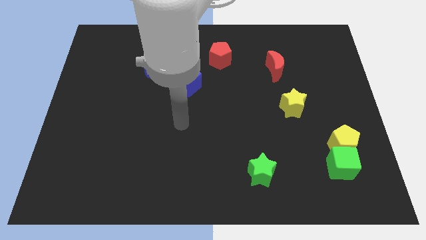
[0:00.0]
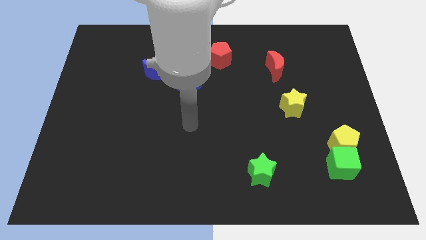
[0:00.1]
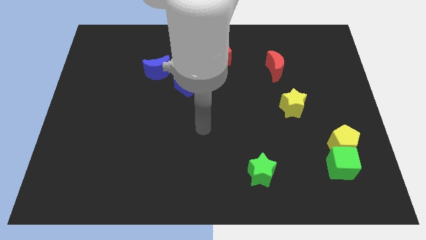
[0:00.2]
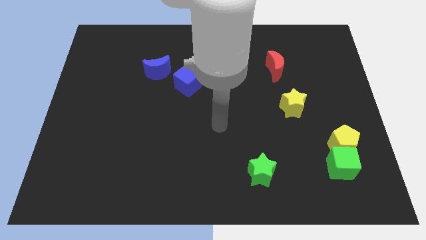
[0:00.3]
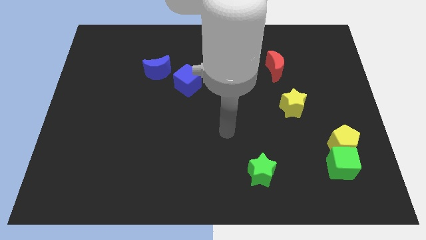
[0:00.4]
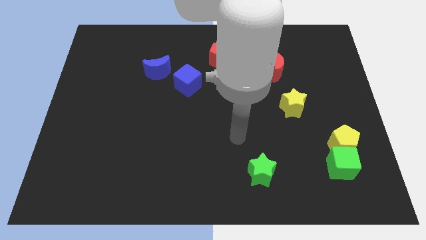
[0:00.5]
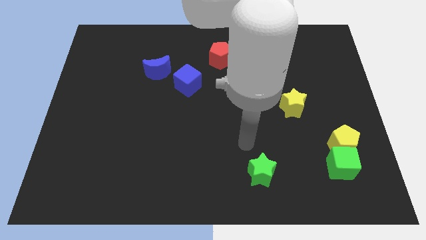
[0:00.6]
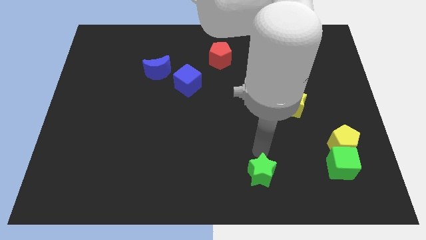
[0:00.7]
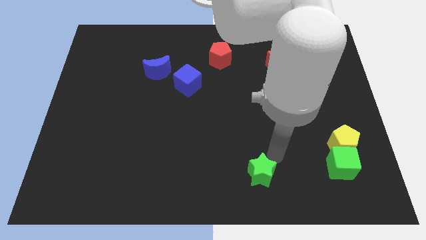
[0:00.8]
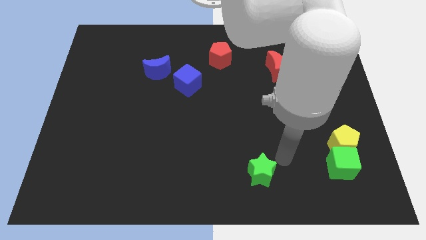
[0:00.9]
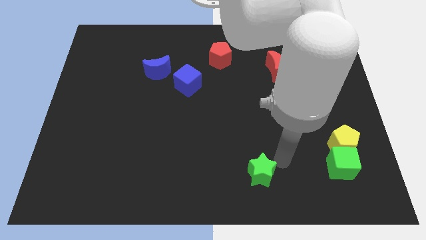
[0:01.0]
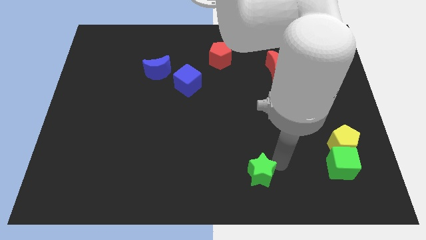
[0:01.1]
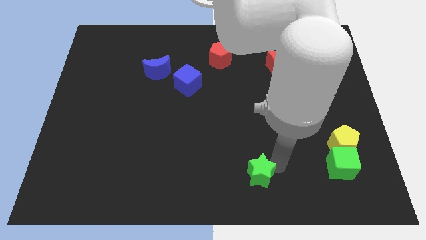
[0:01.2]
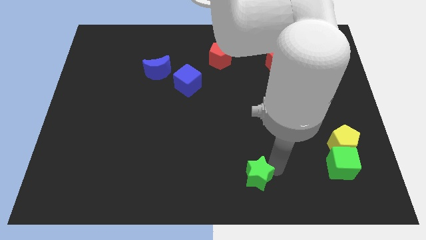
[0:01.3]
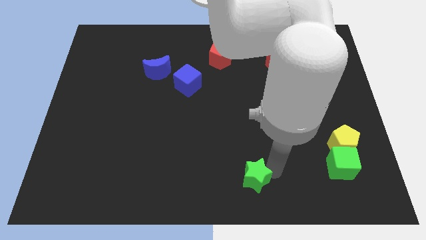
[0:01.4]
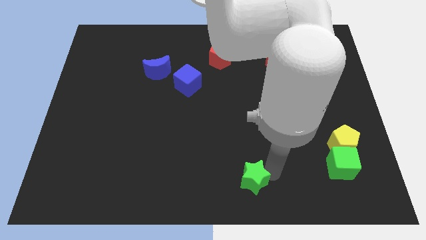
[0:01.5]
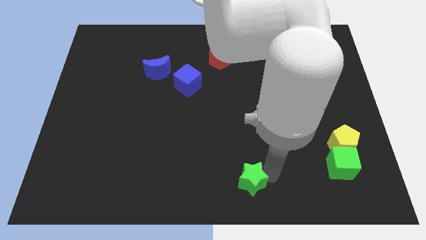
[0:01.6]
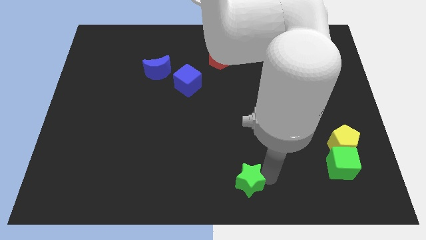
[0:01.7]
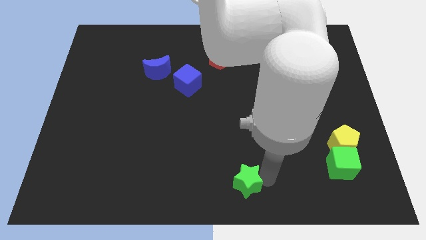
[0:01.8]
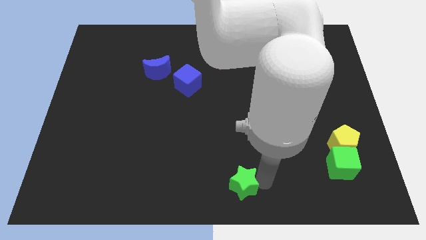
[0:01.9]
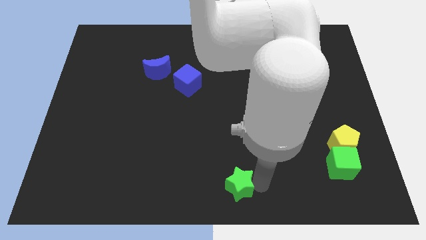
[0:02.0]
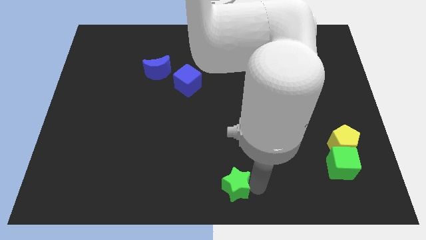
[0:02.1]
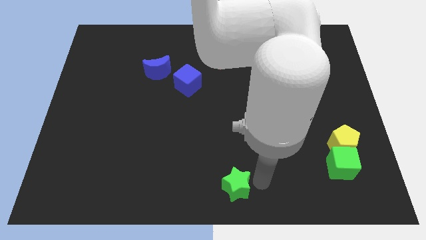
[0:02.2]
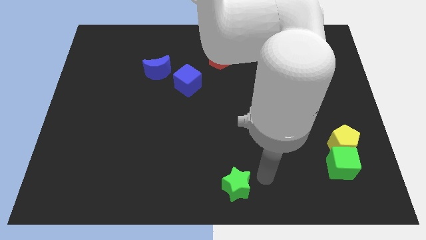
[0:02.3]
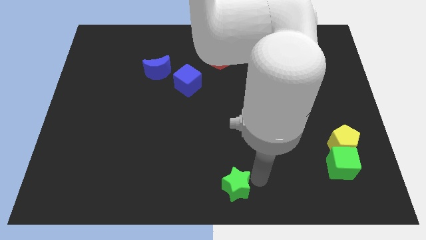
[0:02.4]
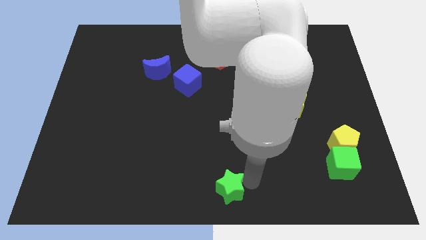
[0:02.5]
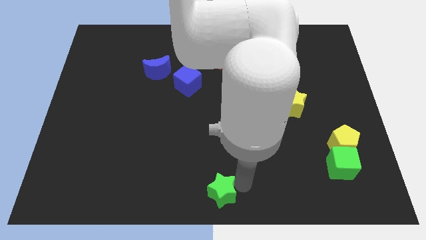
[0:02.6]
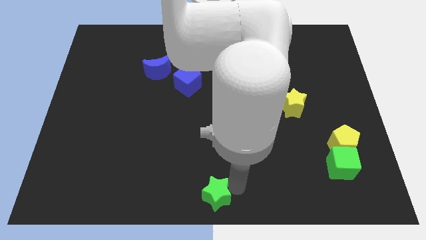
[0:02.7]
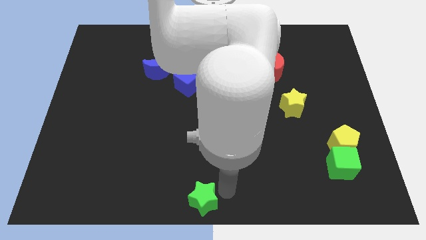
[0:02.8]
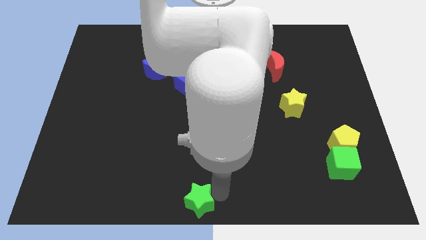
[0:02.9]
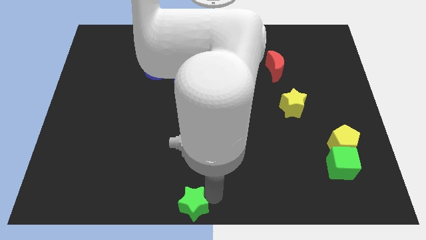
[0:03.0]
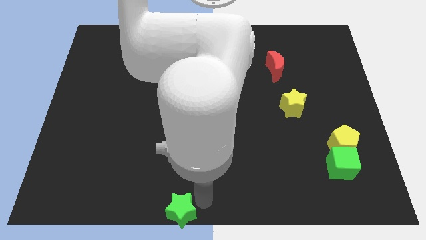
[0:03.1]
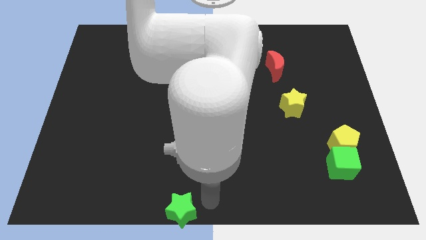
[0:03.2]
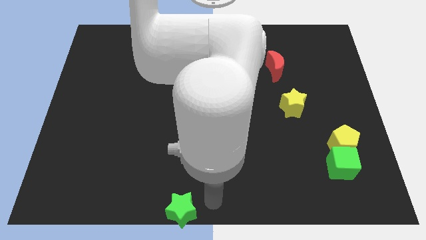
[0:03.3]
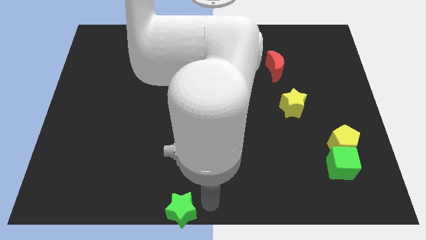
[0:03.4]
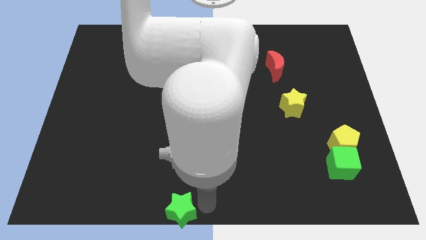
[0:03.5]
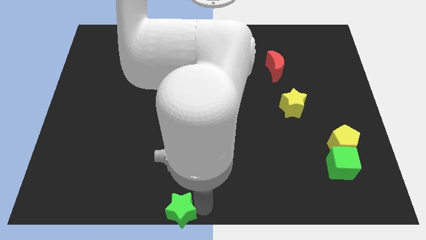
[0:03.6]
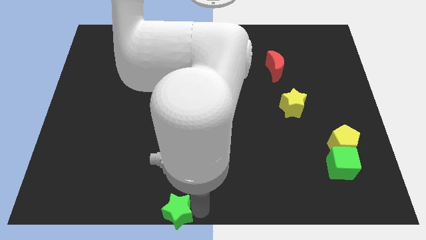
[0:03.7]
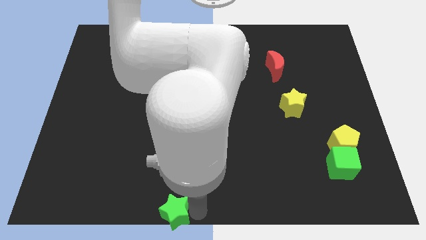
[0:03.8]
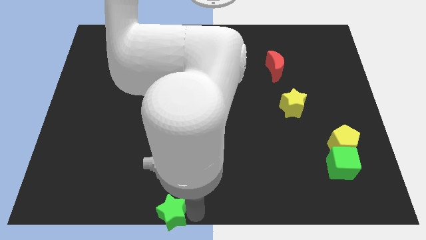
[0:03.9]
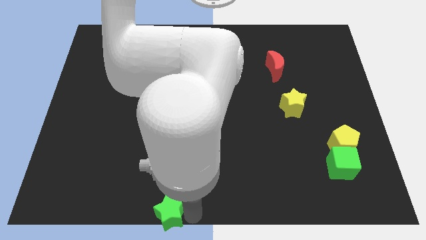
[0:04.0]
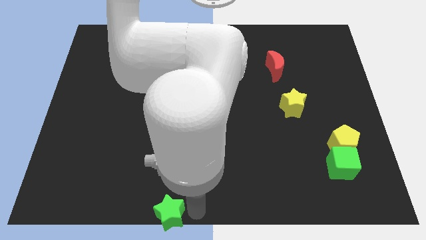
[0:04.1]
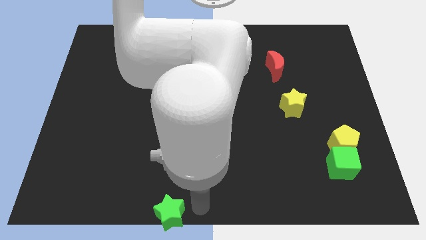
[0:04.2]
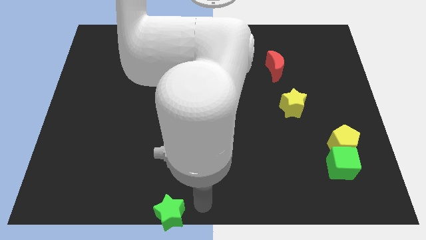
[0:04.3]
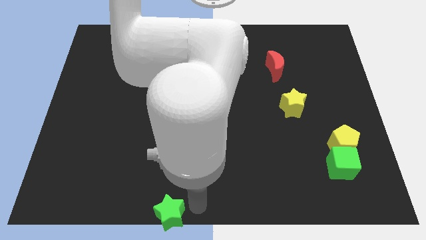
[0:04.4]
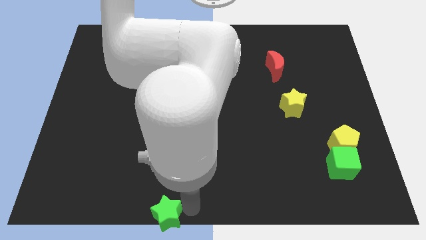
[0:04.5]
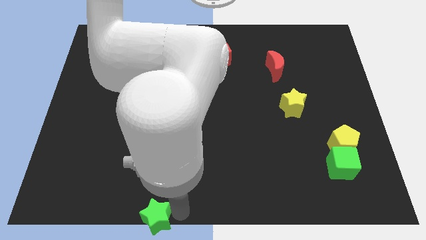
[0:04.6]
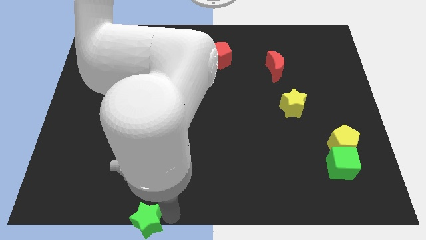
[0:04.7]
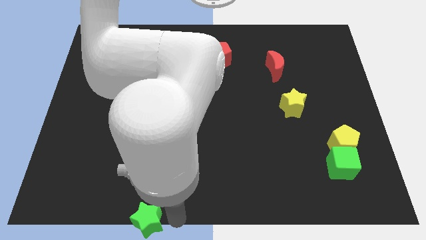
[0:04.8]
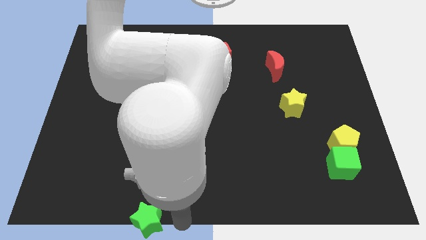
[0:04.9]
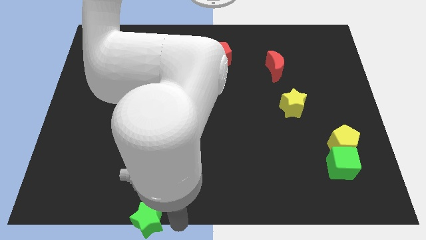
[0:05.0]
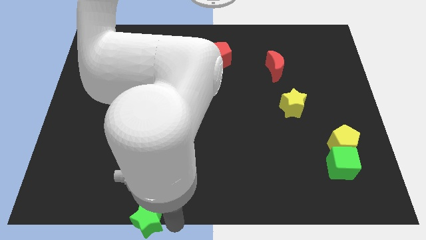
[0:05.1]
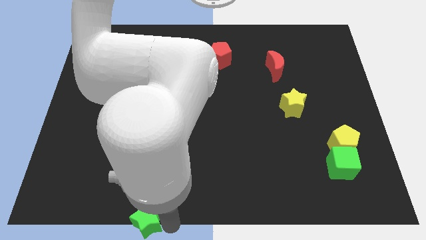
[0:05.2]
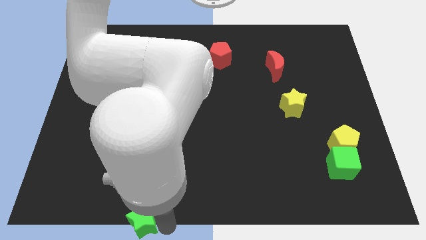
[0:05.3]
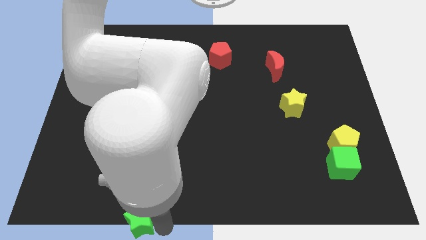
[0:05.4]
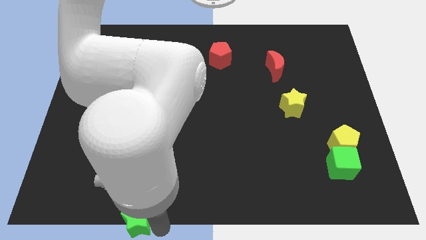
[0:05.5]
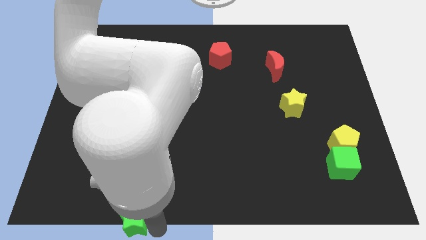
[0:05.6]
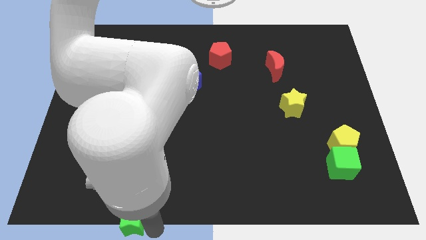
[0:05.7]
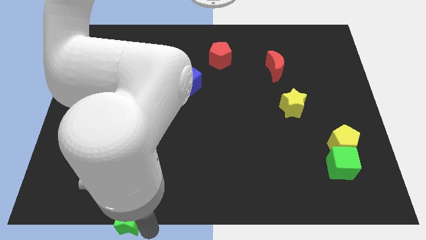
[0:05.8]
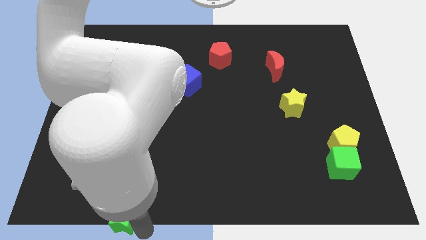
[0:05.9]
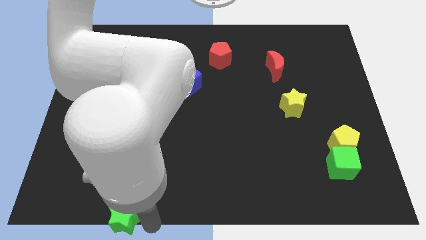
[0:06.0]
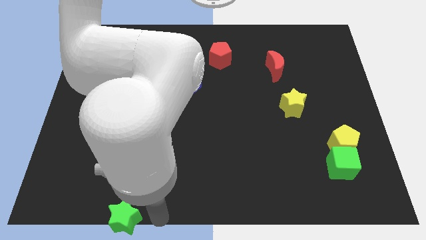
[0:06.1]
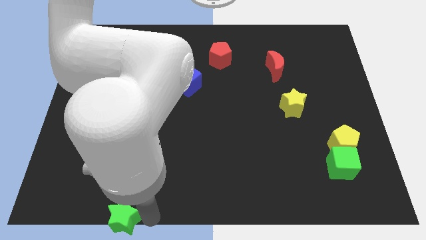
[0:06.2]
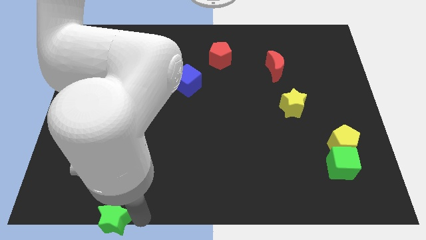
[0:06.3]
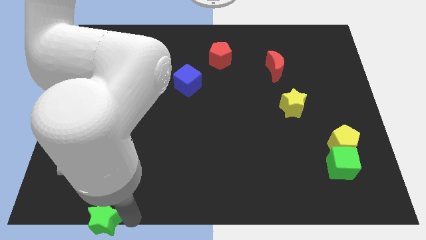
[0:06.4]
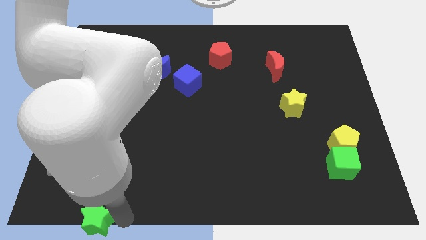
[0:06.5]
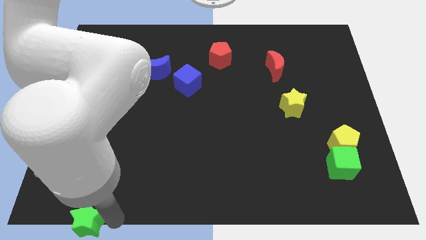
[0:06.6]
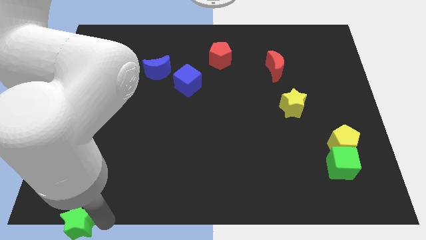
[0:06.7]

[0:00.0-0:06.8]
push the green star to the bottom left

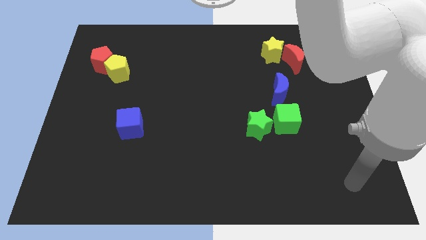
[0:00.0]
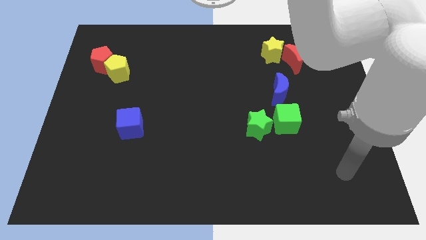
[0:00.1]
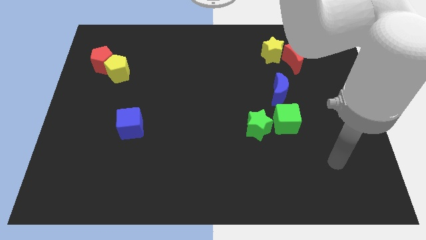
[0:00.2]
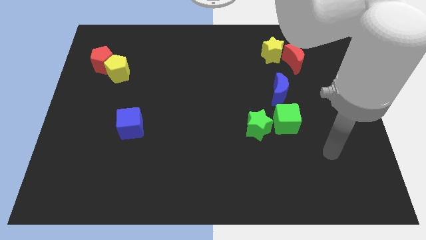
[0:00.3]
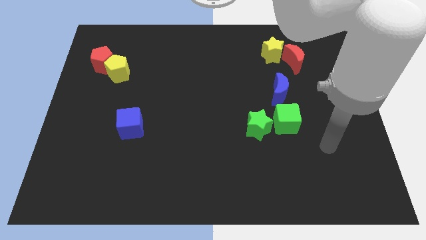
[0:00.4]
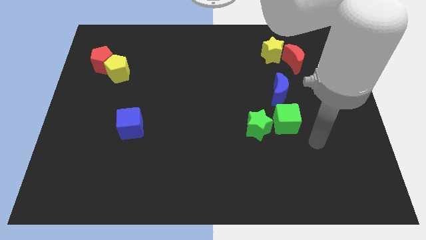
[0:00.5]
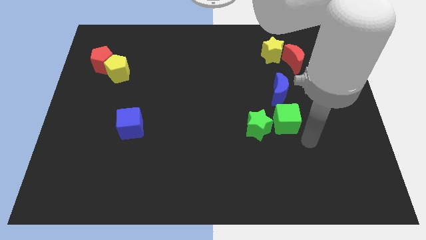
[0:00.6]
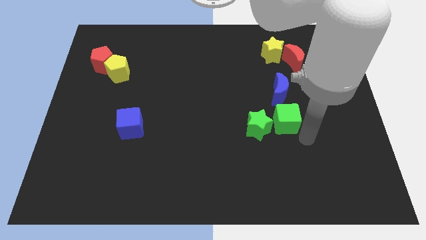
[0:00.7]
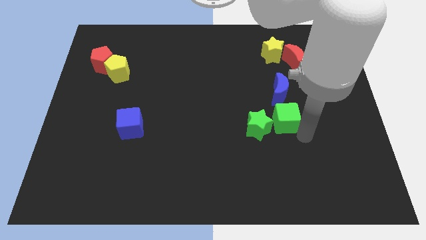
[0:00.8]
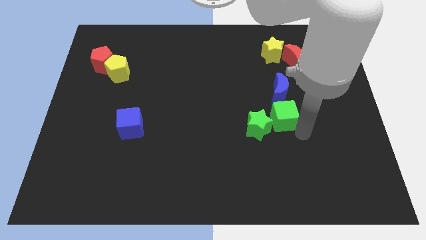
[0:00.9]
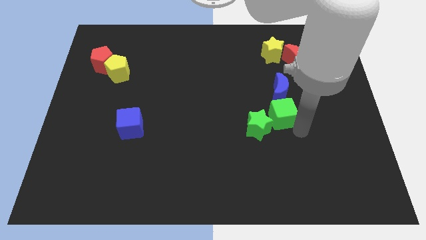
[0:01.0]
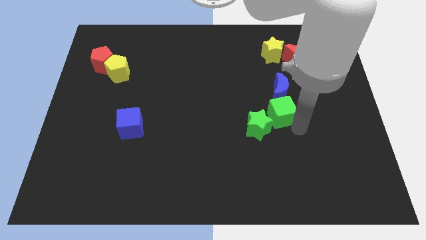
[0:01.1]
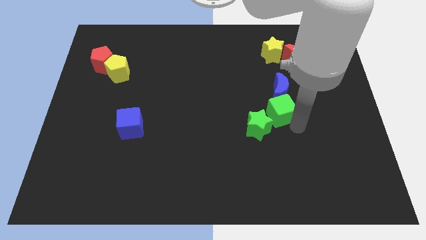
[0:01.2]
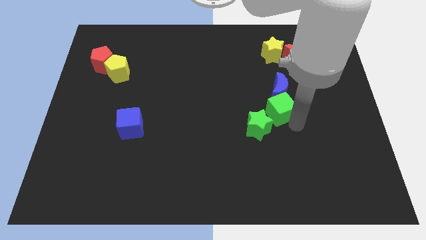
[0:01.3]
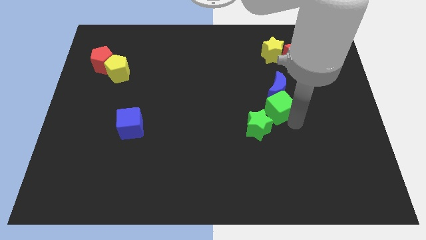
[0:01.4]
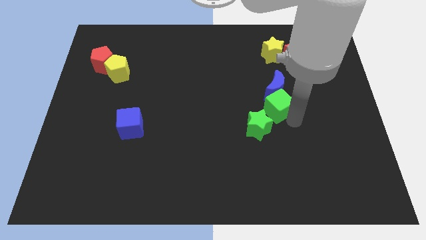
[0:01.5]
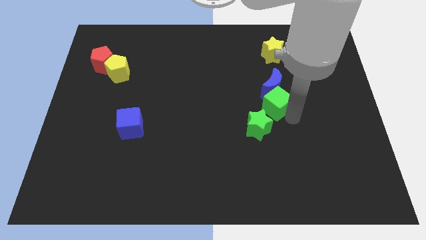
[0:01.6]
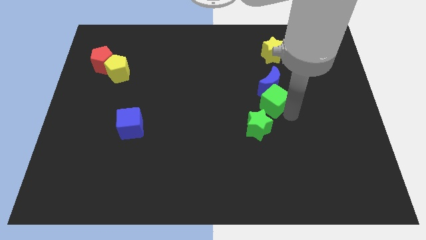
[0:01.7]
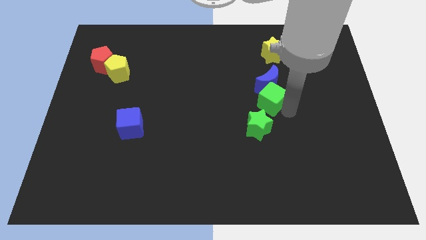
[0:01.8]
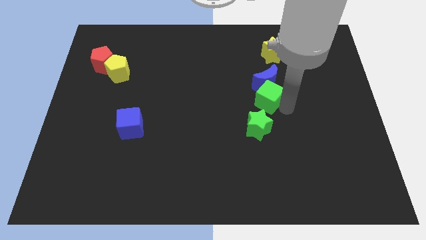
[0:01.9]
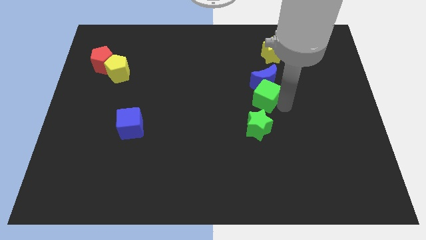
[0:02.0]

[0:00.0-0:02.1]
push the green cube to the middle
